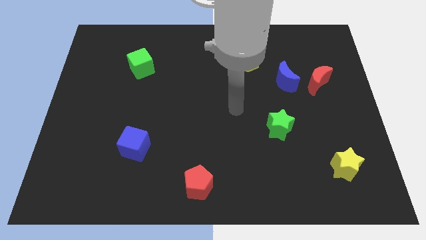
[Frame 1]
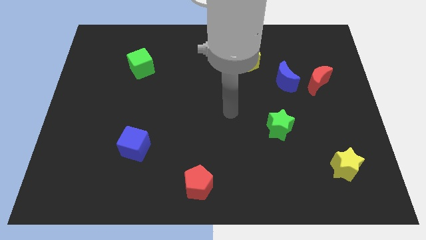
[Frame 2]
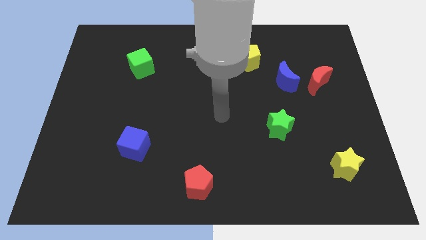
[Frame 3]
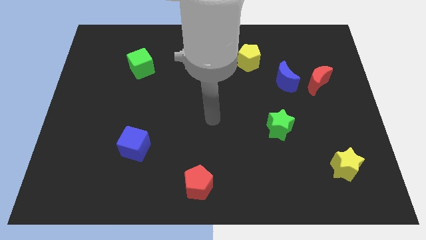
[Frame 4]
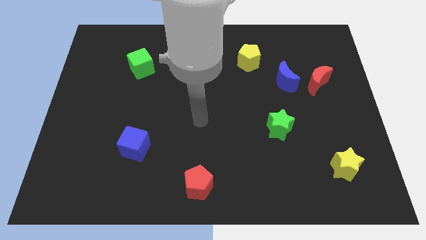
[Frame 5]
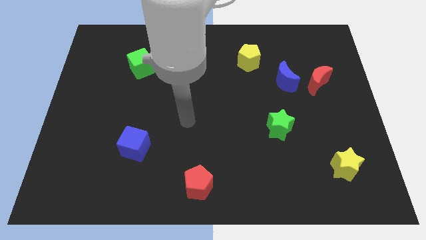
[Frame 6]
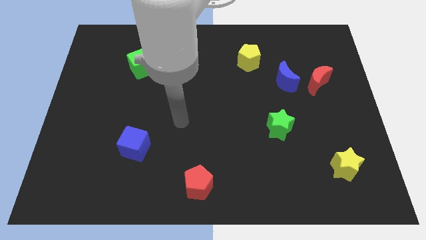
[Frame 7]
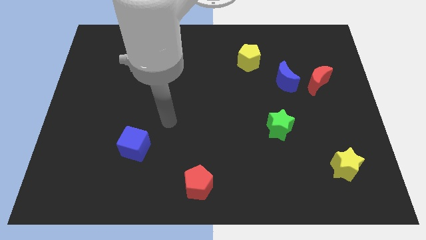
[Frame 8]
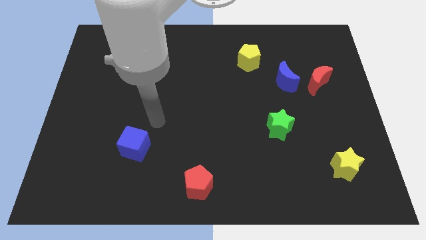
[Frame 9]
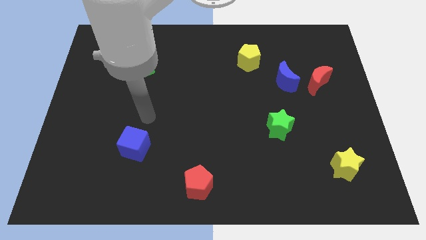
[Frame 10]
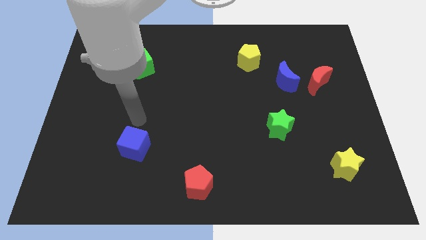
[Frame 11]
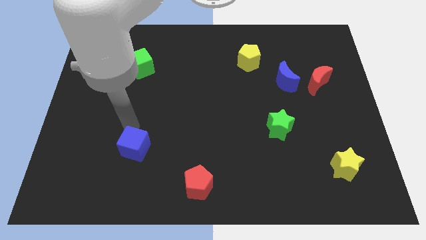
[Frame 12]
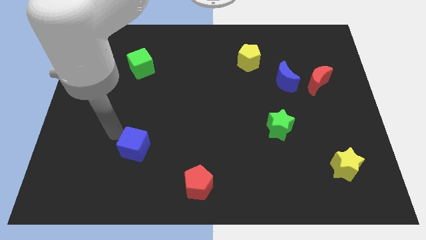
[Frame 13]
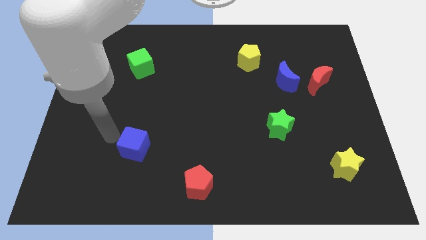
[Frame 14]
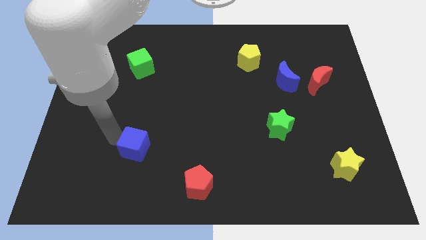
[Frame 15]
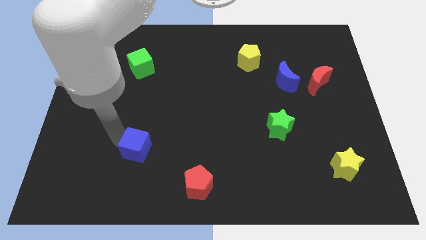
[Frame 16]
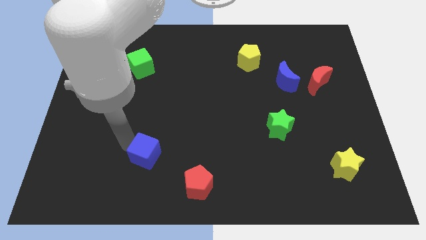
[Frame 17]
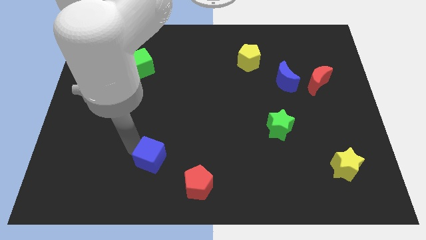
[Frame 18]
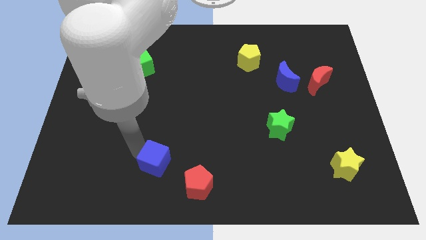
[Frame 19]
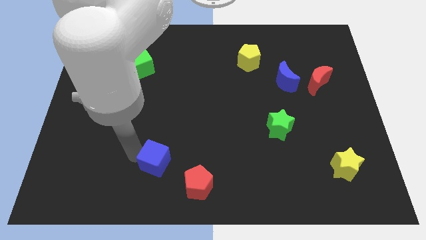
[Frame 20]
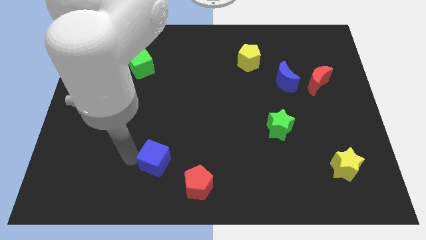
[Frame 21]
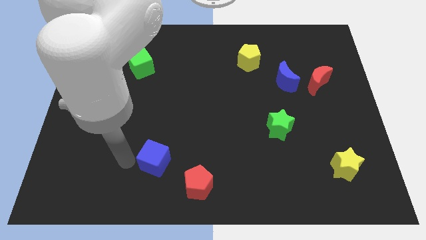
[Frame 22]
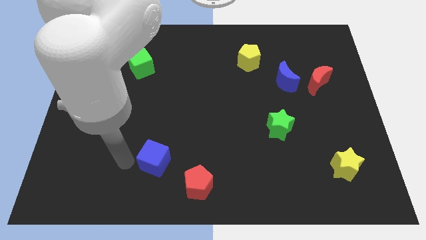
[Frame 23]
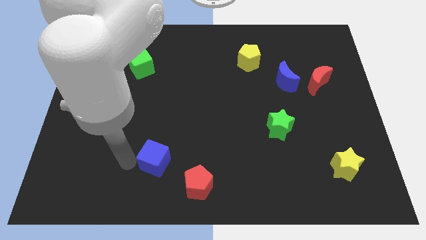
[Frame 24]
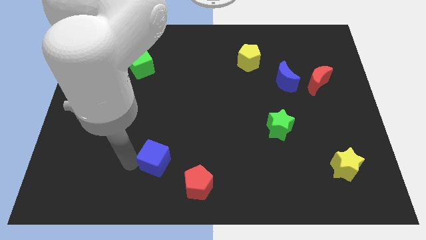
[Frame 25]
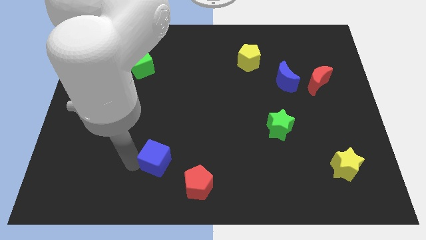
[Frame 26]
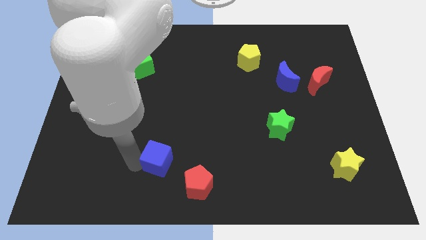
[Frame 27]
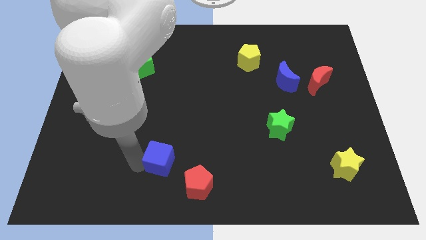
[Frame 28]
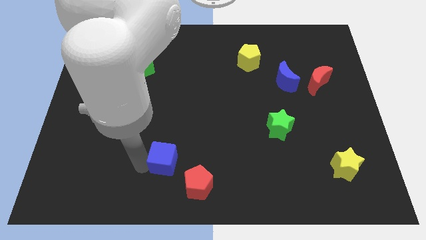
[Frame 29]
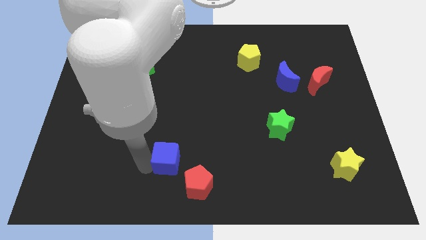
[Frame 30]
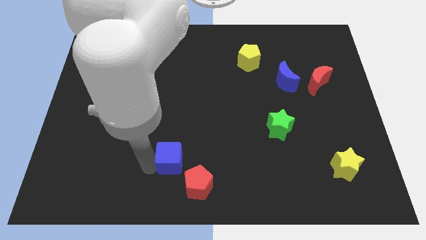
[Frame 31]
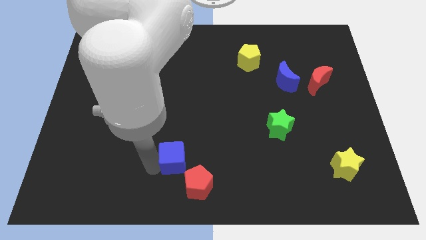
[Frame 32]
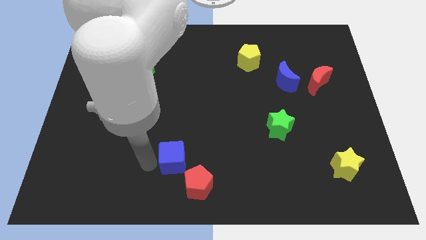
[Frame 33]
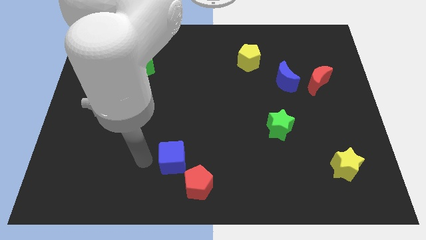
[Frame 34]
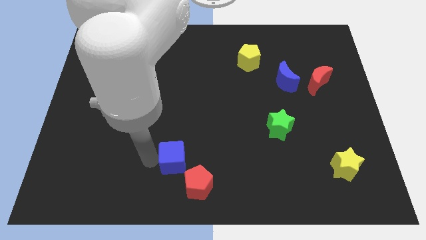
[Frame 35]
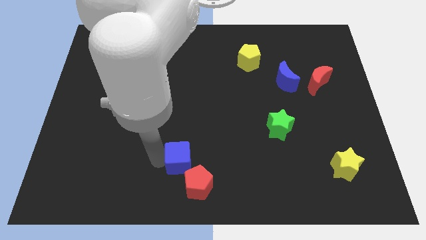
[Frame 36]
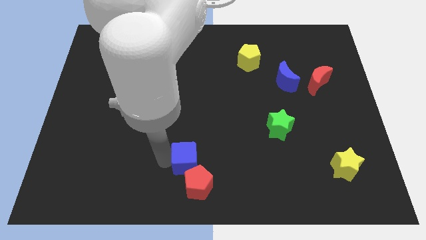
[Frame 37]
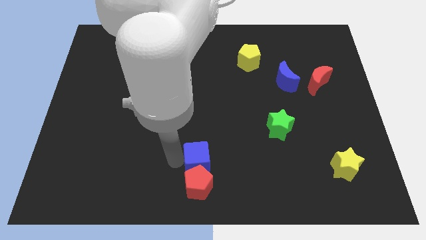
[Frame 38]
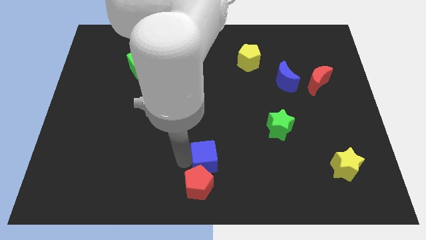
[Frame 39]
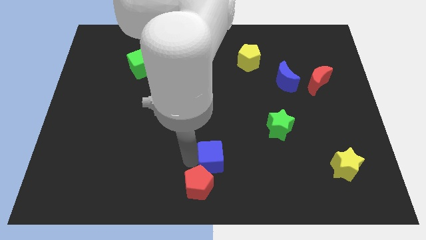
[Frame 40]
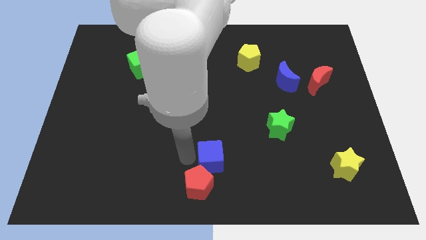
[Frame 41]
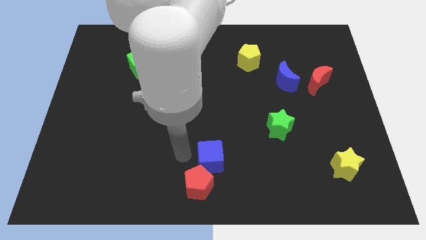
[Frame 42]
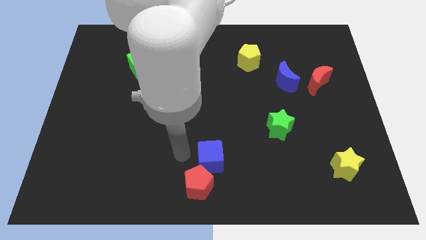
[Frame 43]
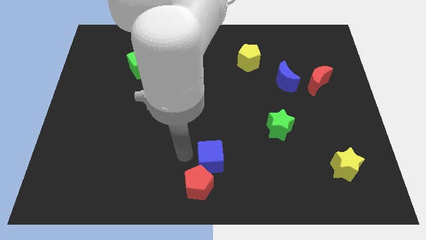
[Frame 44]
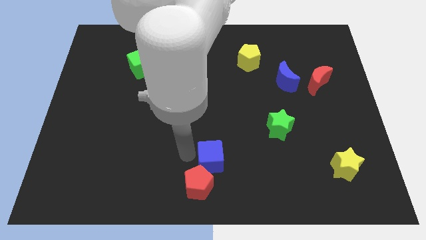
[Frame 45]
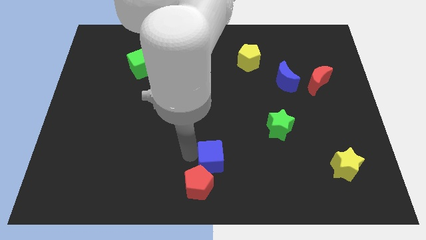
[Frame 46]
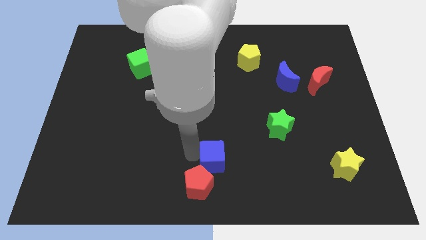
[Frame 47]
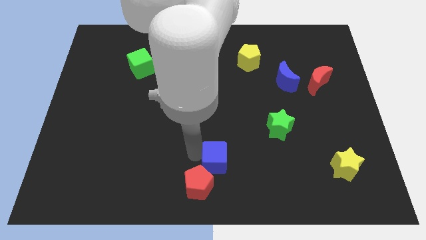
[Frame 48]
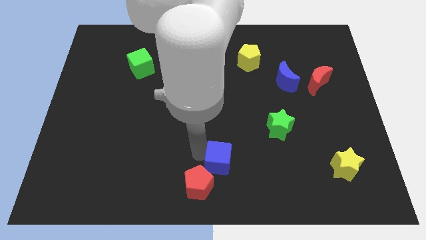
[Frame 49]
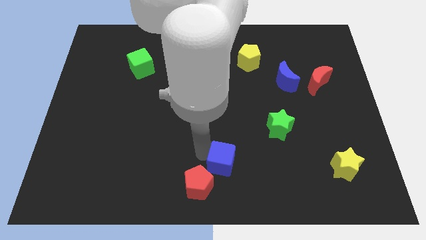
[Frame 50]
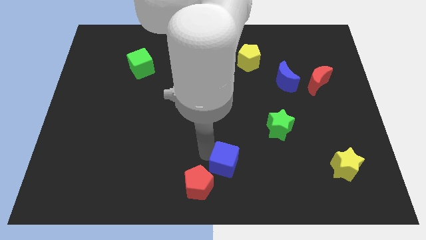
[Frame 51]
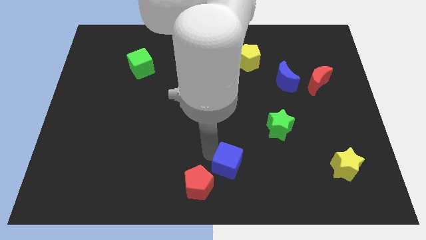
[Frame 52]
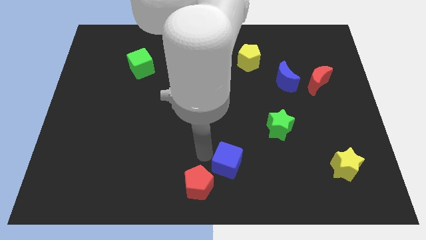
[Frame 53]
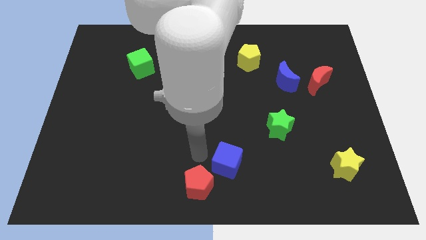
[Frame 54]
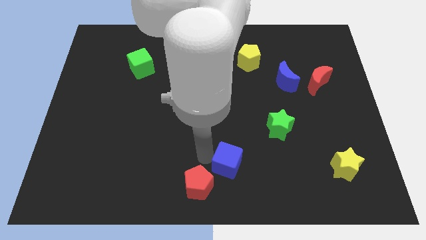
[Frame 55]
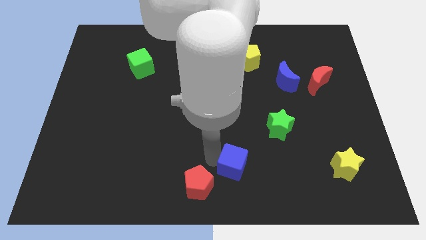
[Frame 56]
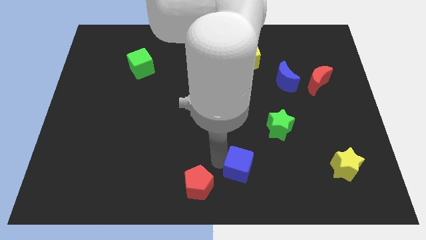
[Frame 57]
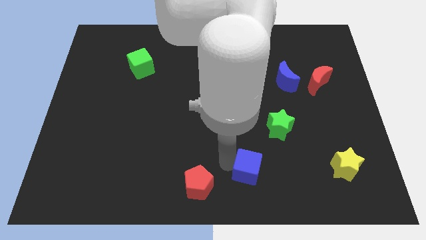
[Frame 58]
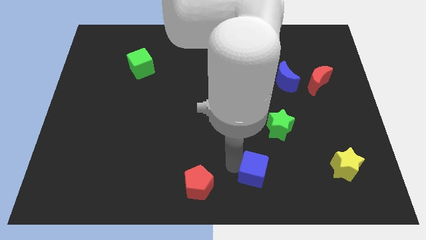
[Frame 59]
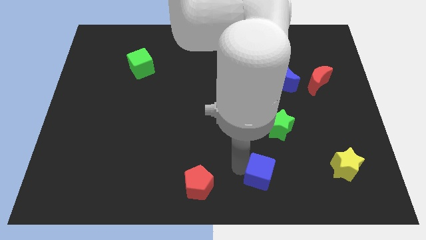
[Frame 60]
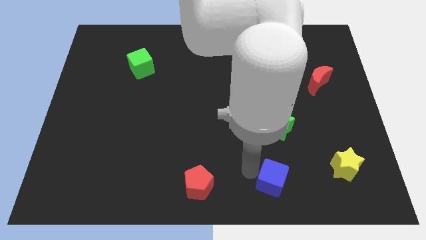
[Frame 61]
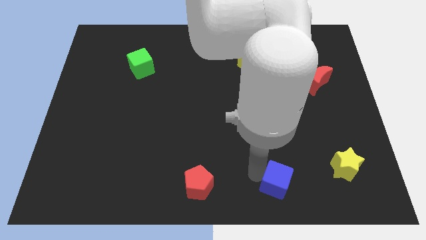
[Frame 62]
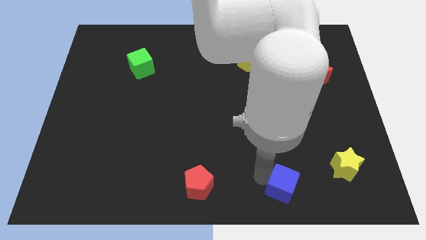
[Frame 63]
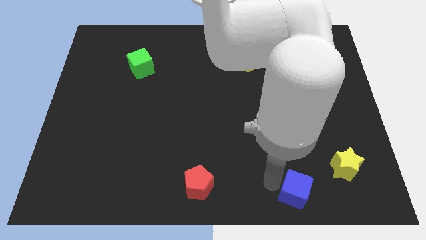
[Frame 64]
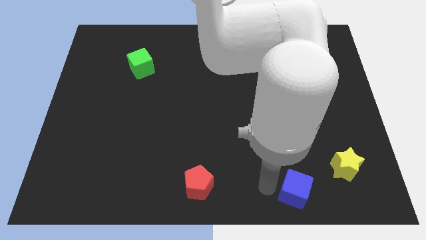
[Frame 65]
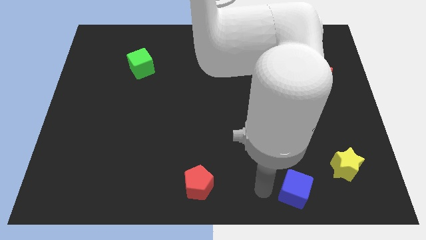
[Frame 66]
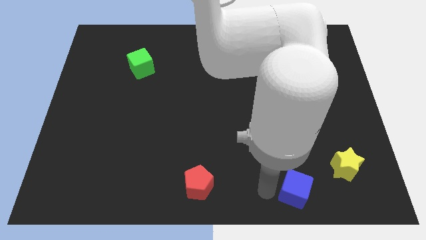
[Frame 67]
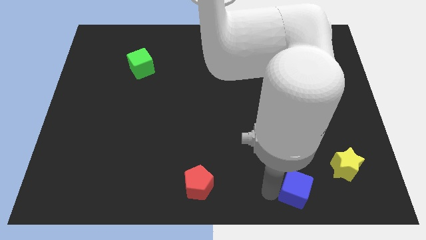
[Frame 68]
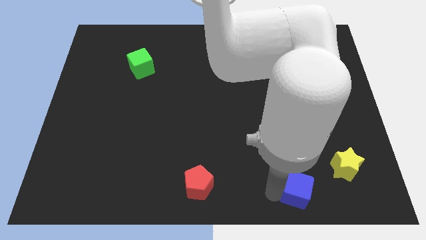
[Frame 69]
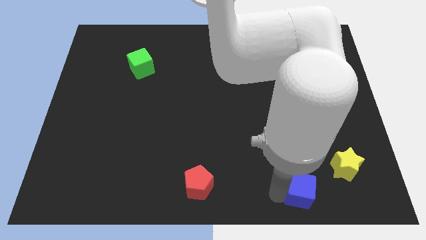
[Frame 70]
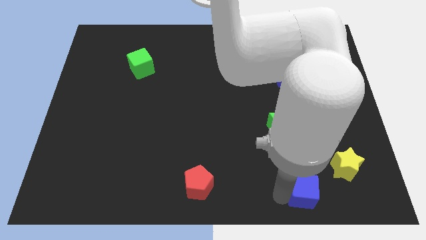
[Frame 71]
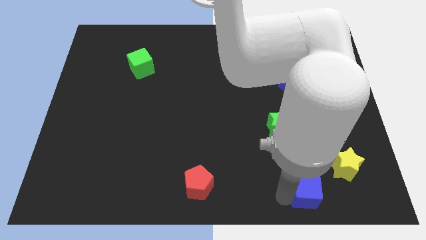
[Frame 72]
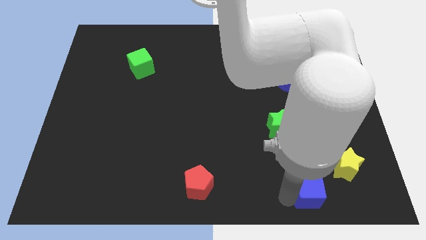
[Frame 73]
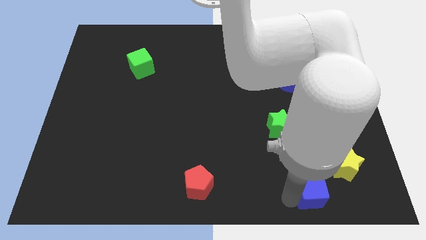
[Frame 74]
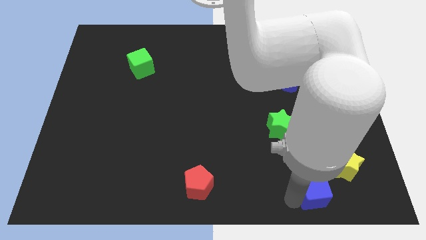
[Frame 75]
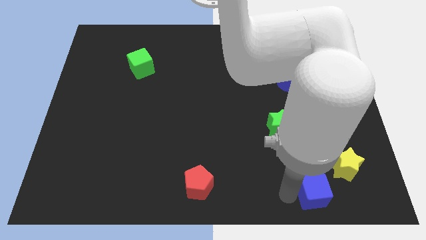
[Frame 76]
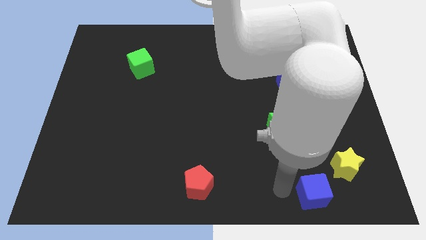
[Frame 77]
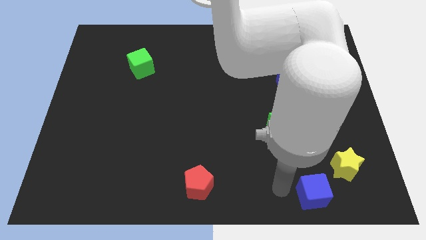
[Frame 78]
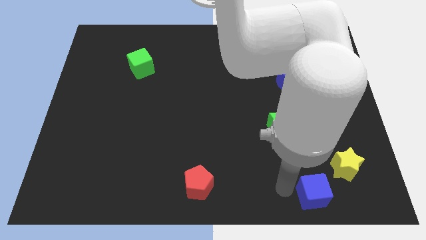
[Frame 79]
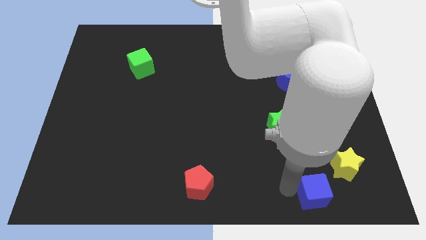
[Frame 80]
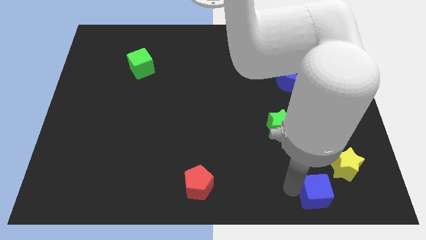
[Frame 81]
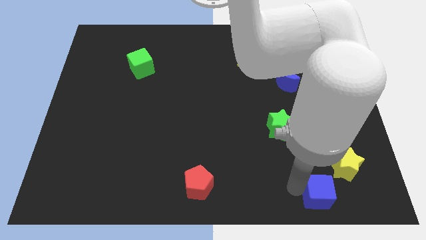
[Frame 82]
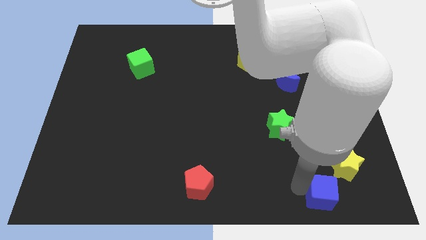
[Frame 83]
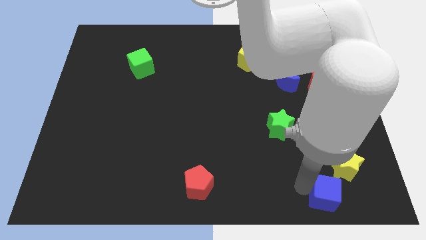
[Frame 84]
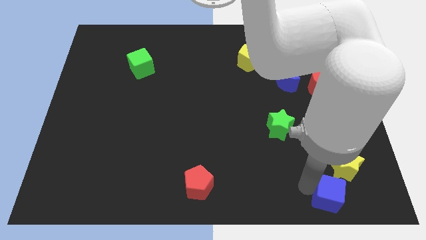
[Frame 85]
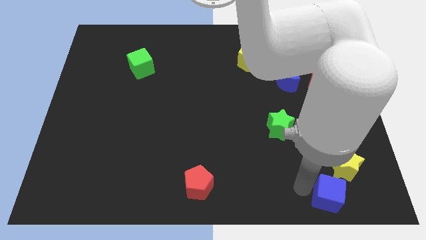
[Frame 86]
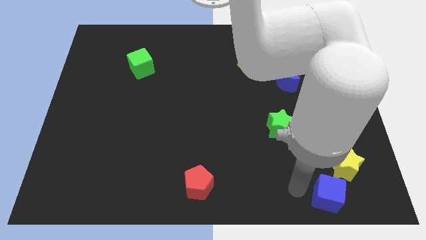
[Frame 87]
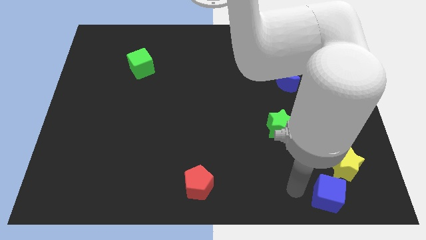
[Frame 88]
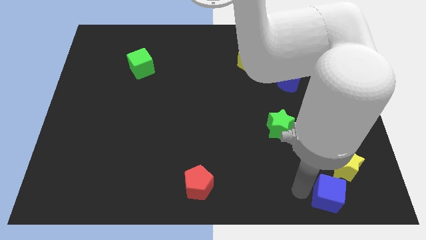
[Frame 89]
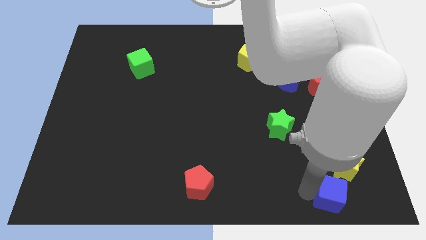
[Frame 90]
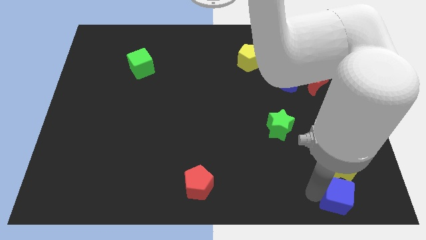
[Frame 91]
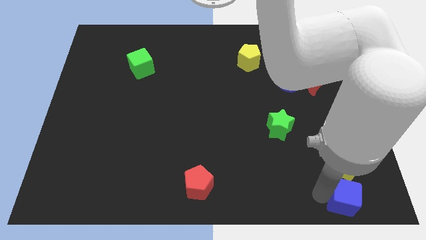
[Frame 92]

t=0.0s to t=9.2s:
slide the blue cube to the bottom right of the board
